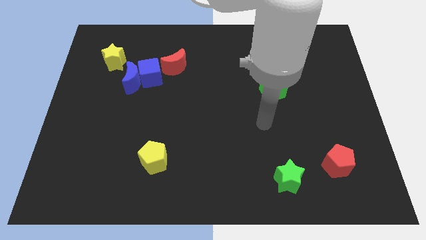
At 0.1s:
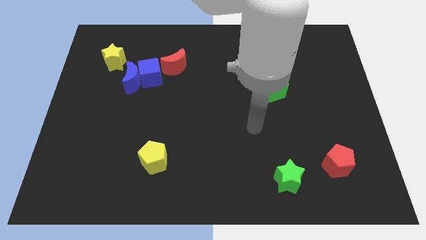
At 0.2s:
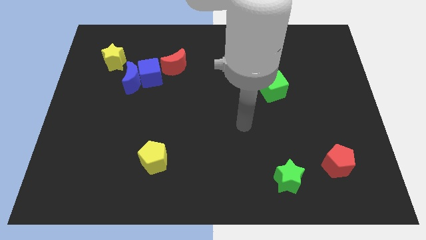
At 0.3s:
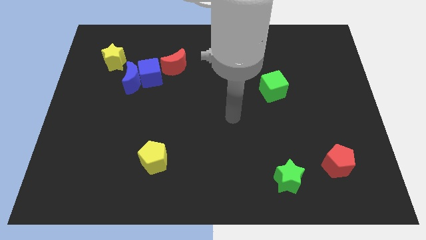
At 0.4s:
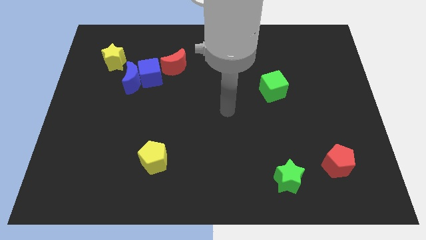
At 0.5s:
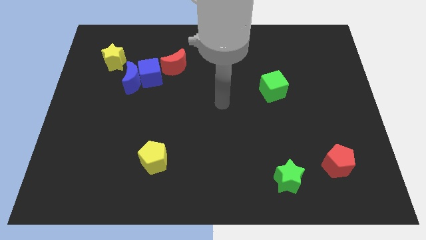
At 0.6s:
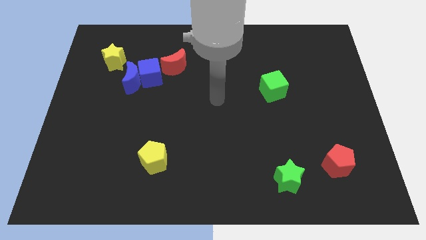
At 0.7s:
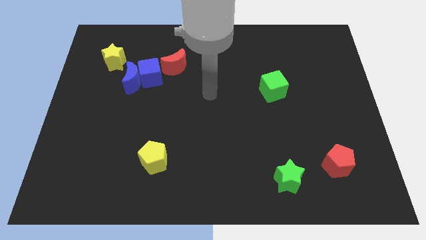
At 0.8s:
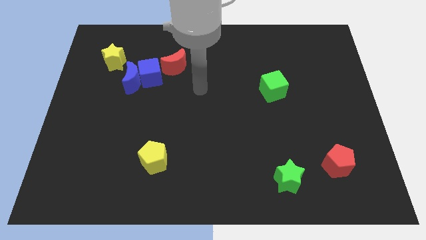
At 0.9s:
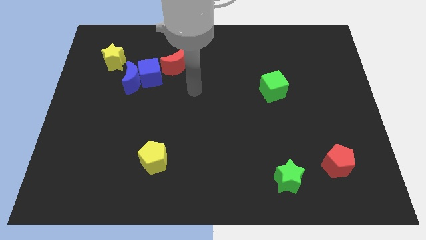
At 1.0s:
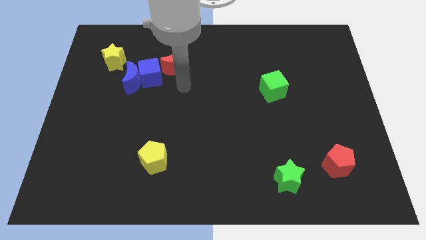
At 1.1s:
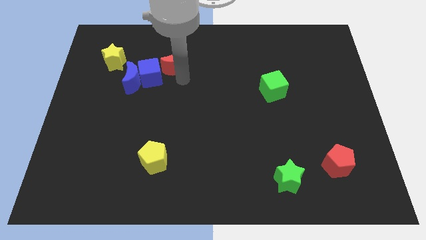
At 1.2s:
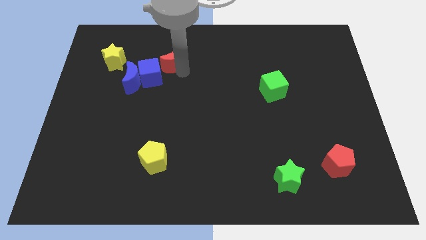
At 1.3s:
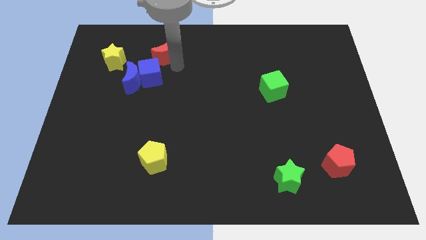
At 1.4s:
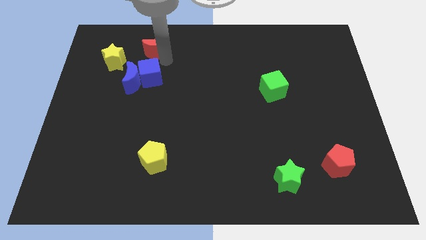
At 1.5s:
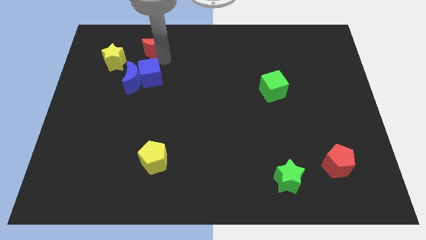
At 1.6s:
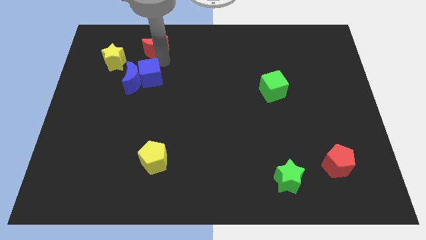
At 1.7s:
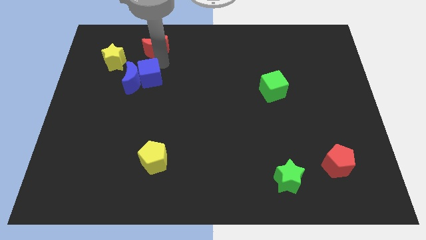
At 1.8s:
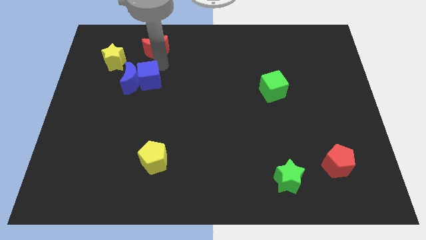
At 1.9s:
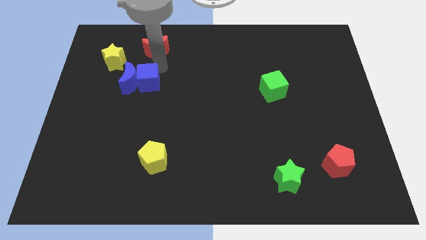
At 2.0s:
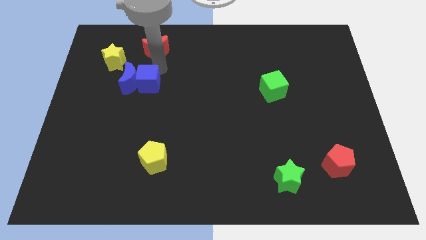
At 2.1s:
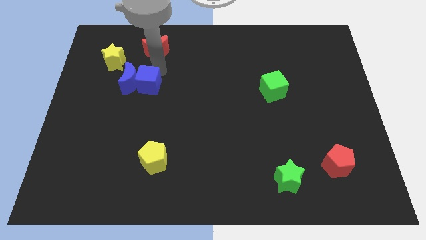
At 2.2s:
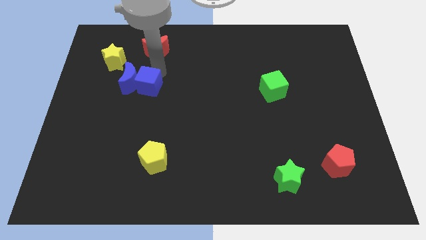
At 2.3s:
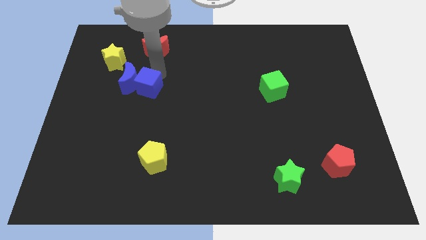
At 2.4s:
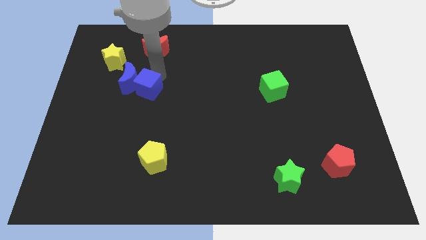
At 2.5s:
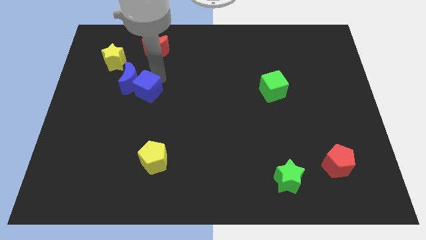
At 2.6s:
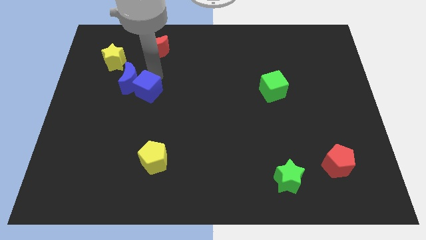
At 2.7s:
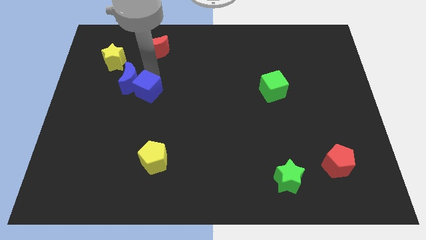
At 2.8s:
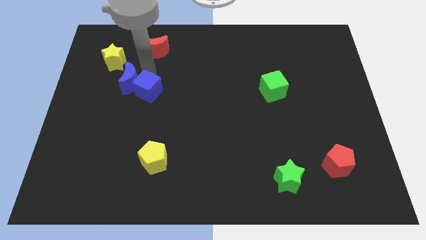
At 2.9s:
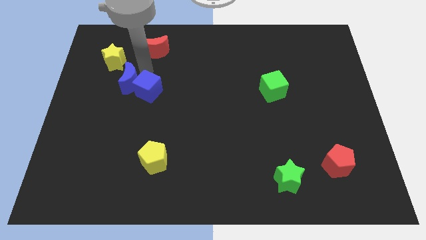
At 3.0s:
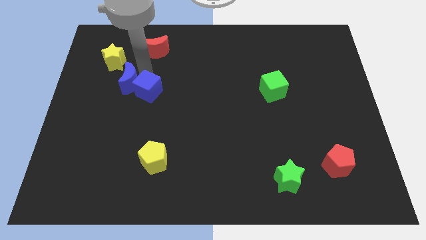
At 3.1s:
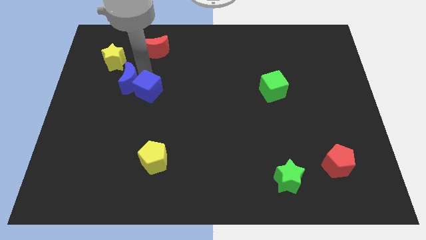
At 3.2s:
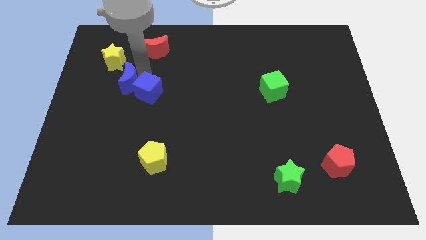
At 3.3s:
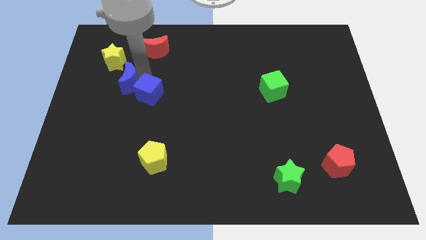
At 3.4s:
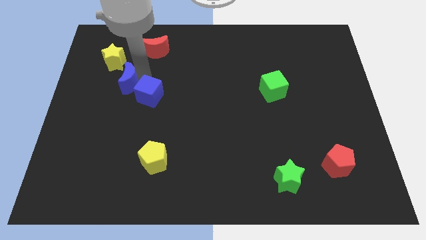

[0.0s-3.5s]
move the blue cube away from the blue moon and red moon

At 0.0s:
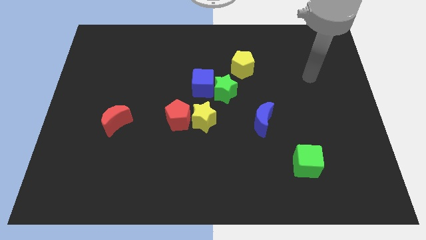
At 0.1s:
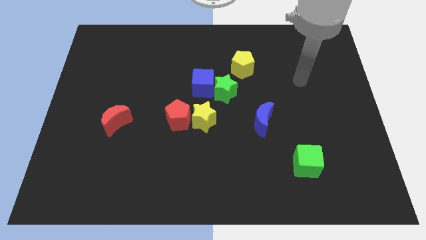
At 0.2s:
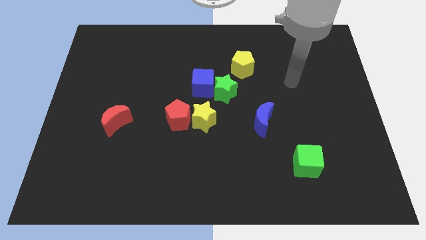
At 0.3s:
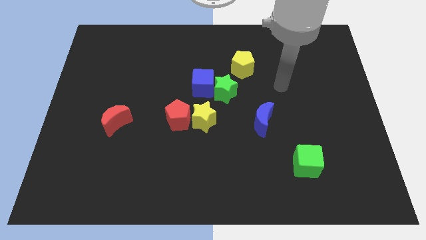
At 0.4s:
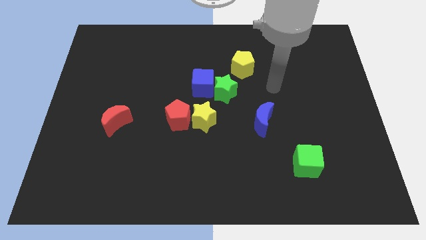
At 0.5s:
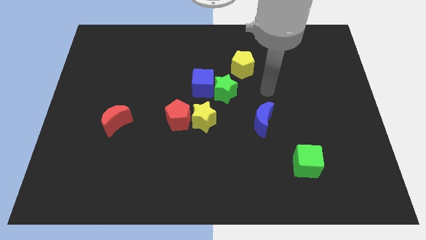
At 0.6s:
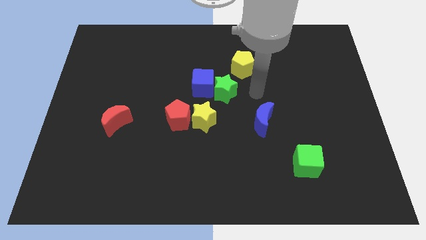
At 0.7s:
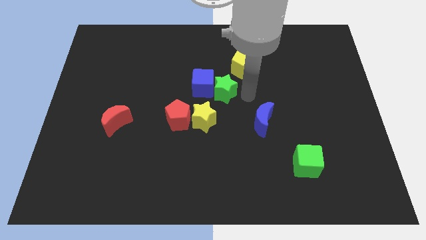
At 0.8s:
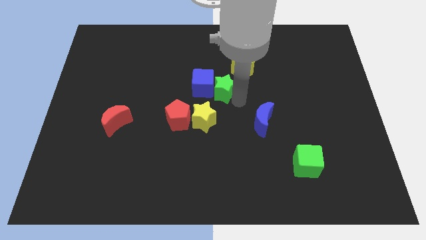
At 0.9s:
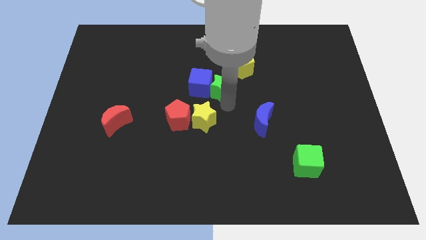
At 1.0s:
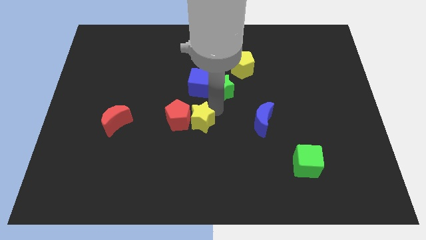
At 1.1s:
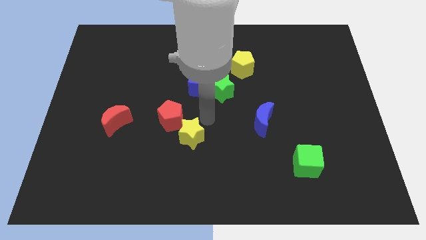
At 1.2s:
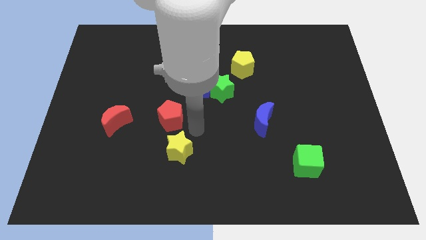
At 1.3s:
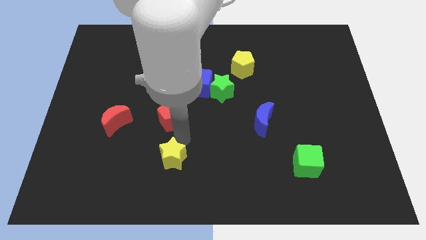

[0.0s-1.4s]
move the red pentagon away from the yellow star

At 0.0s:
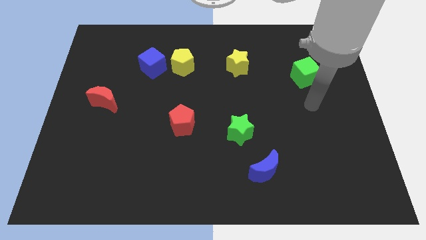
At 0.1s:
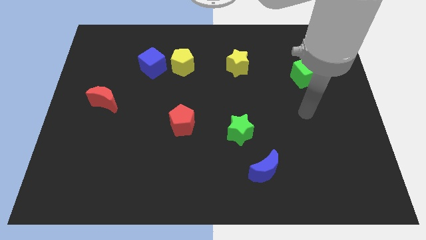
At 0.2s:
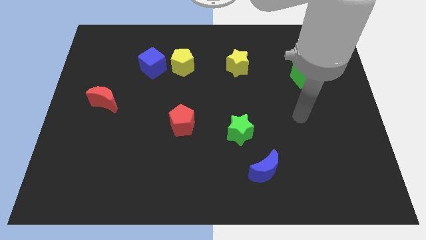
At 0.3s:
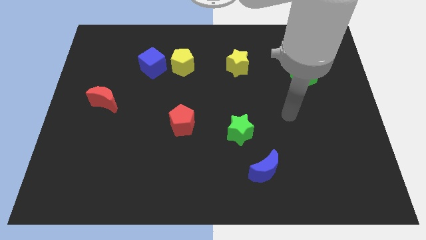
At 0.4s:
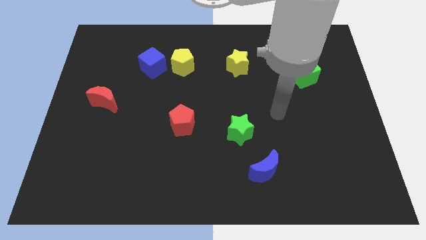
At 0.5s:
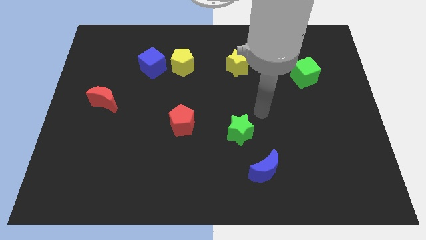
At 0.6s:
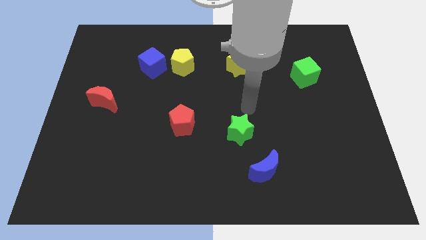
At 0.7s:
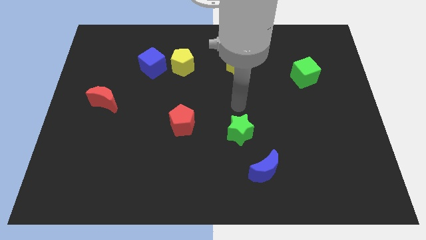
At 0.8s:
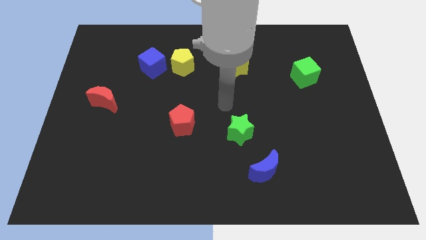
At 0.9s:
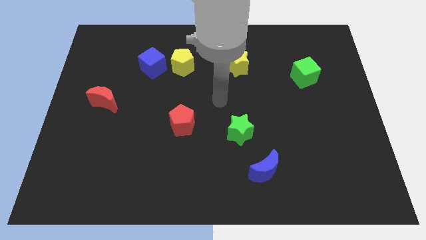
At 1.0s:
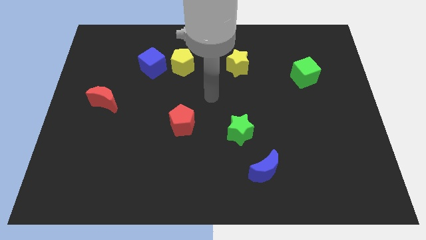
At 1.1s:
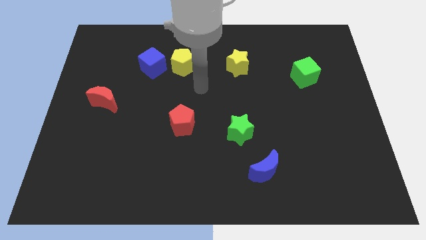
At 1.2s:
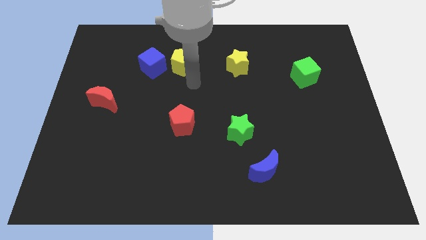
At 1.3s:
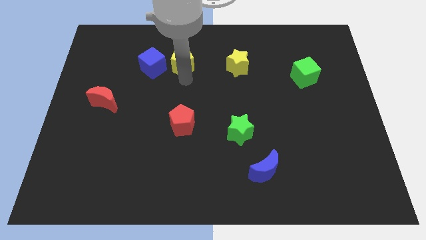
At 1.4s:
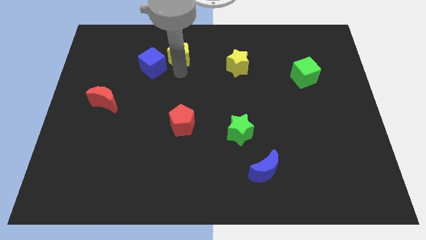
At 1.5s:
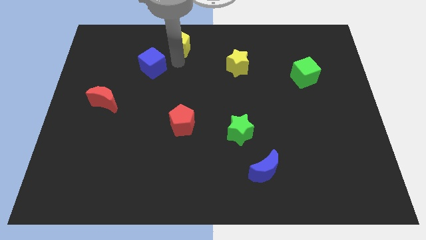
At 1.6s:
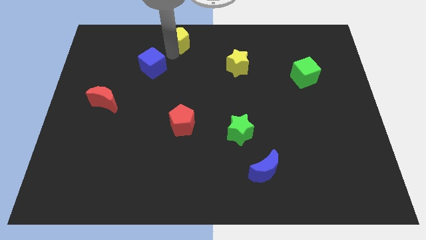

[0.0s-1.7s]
move the blue cube away from the yellow pentagon

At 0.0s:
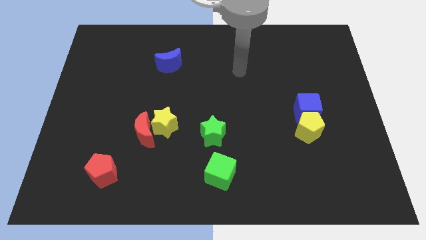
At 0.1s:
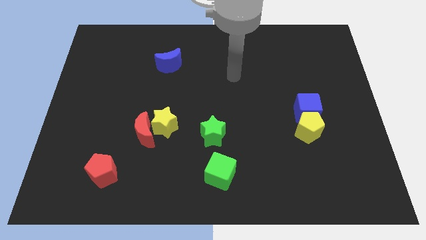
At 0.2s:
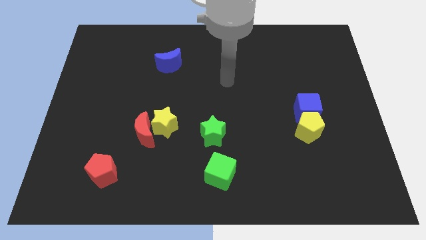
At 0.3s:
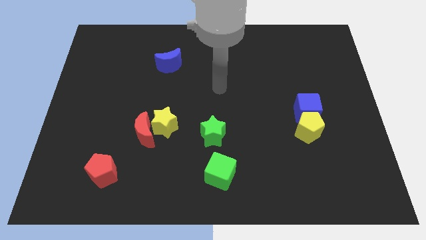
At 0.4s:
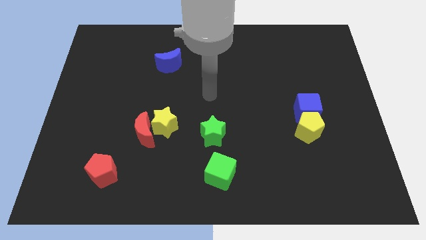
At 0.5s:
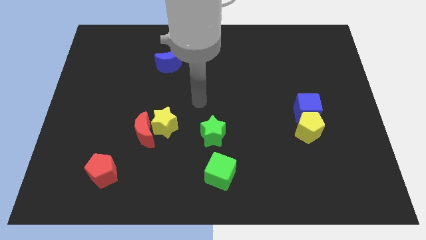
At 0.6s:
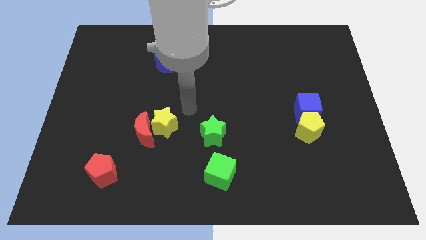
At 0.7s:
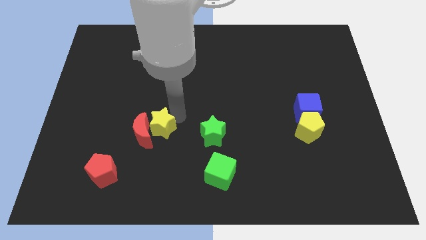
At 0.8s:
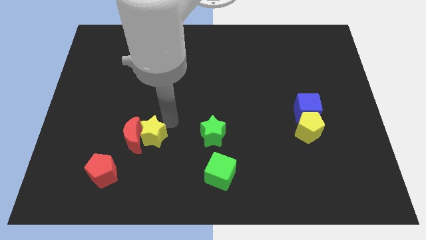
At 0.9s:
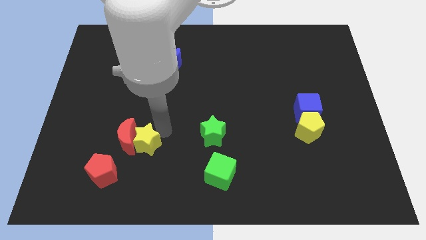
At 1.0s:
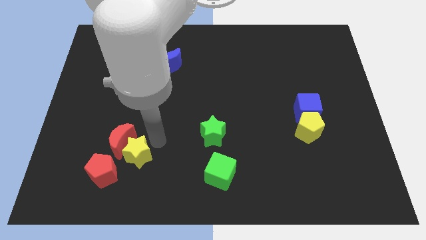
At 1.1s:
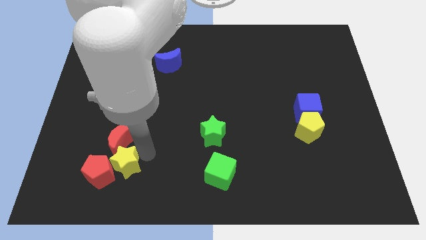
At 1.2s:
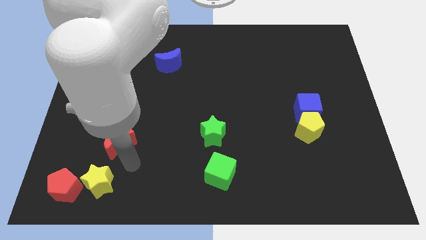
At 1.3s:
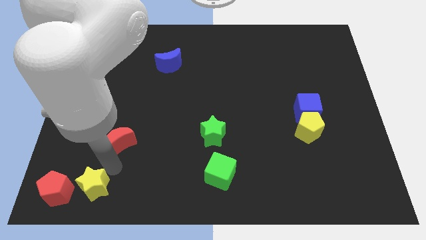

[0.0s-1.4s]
separate the red moon from the yellow star

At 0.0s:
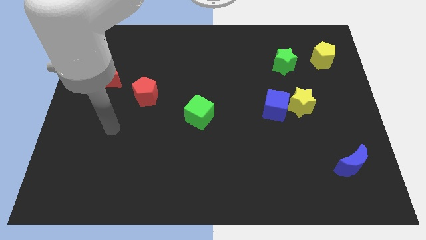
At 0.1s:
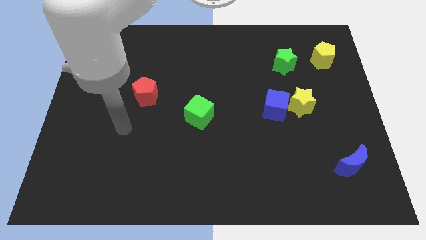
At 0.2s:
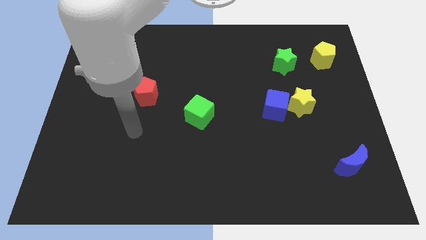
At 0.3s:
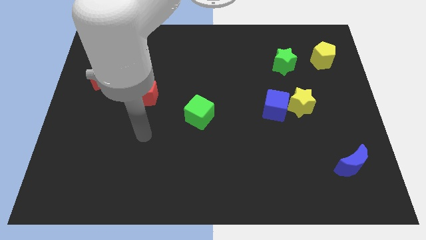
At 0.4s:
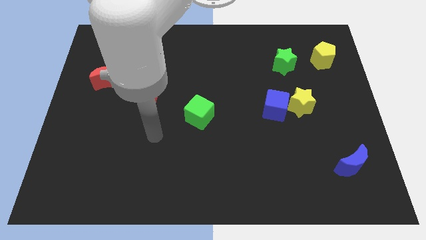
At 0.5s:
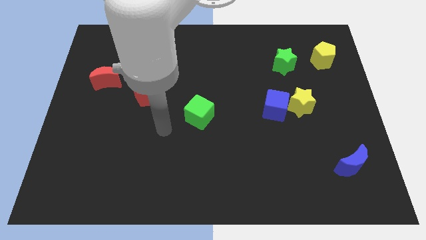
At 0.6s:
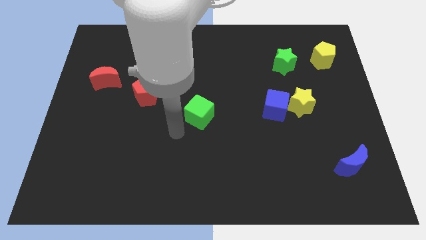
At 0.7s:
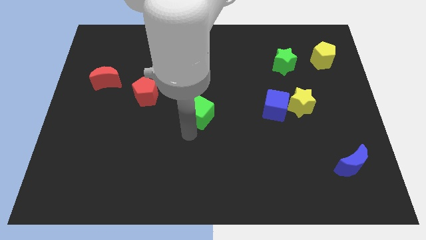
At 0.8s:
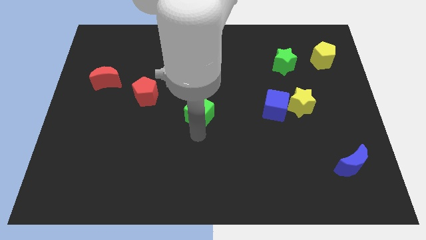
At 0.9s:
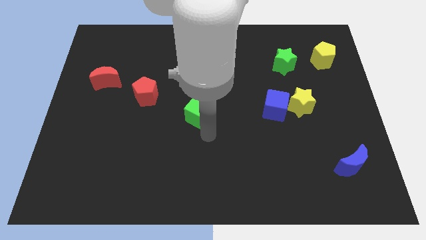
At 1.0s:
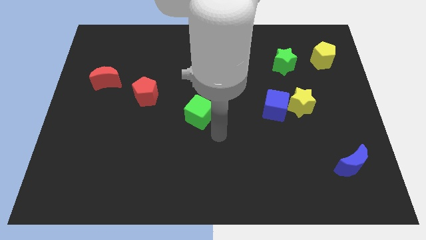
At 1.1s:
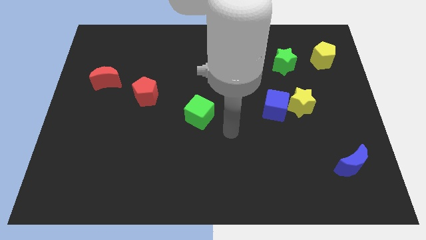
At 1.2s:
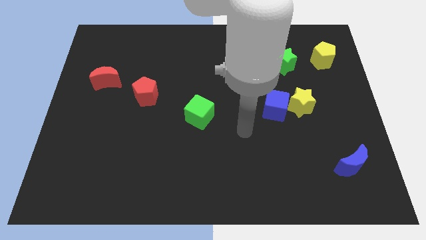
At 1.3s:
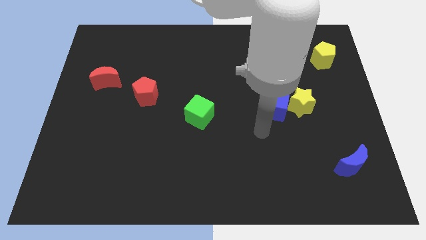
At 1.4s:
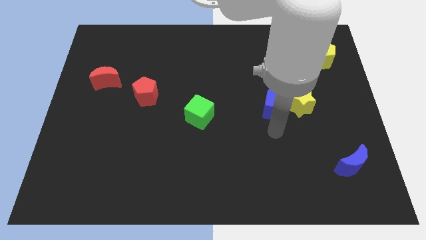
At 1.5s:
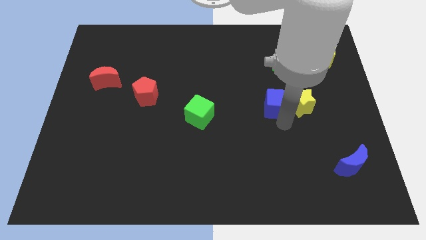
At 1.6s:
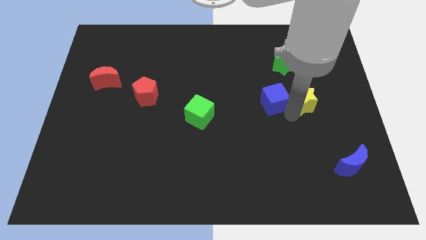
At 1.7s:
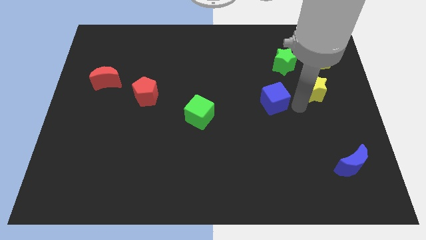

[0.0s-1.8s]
separate the blue cube from the yellow star
